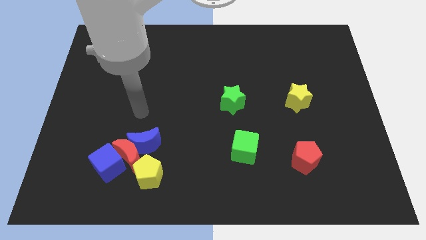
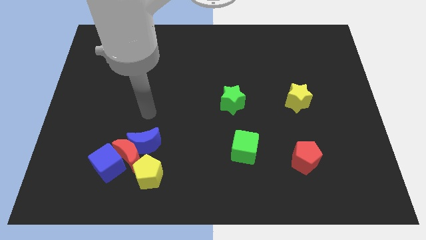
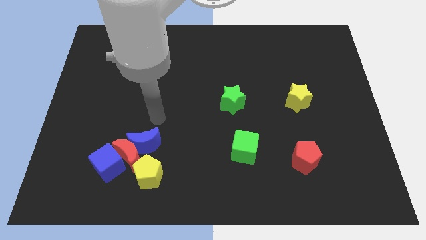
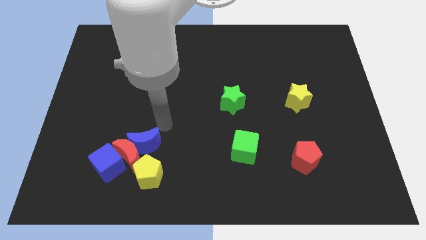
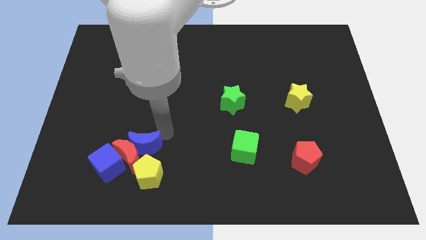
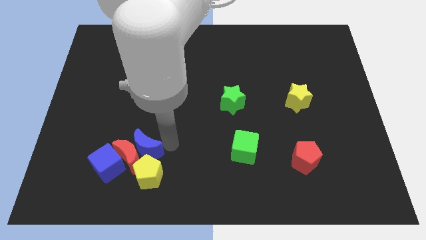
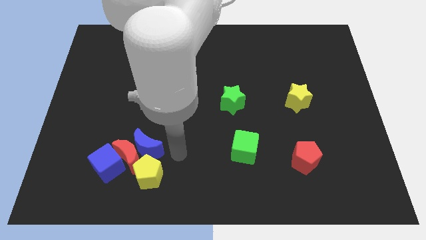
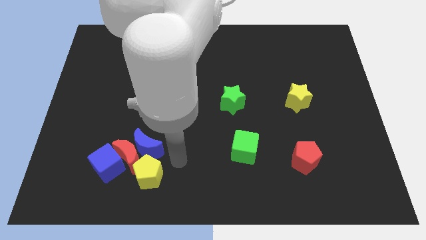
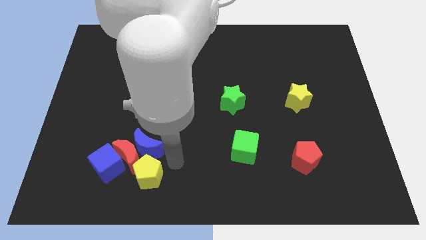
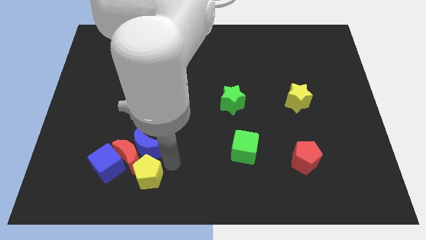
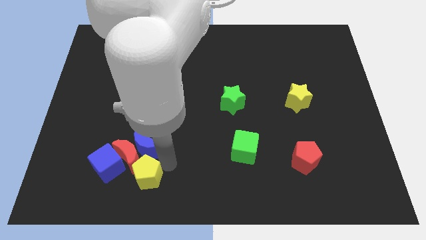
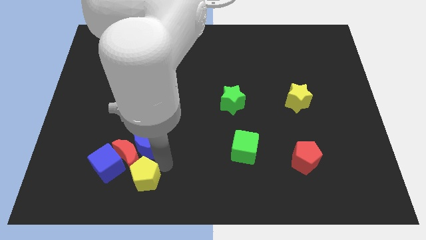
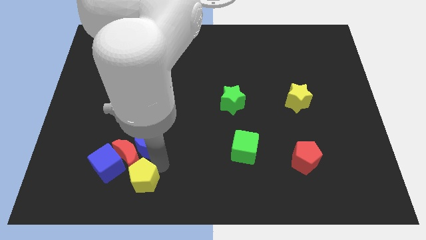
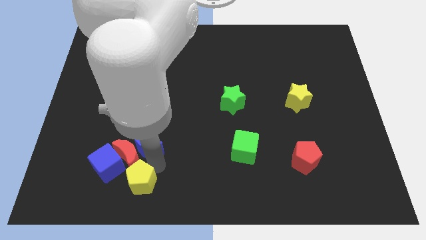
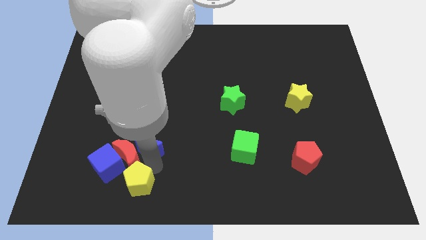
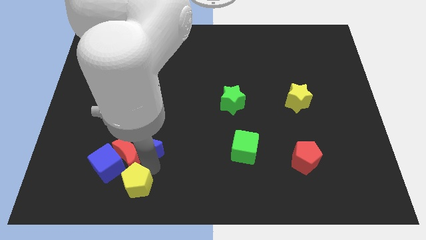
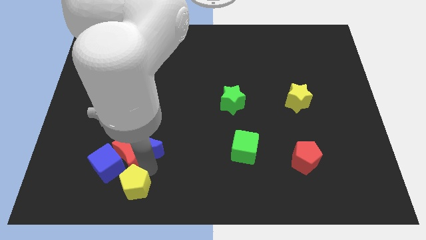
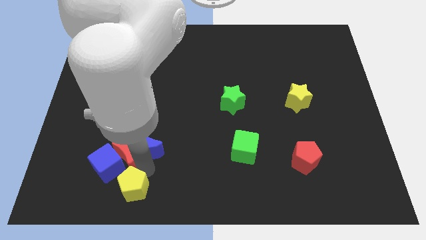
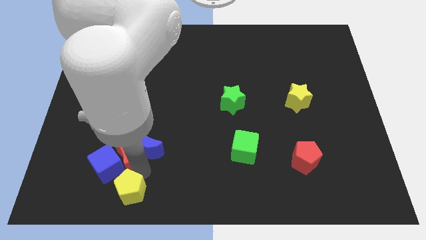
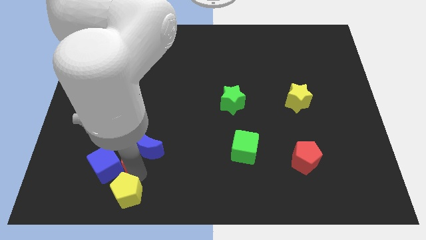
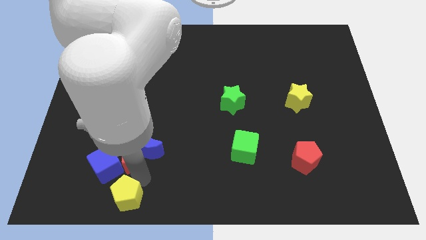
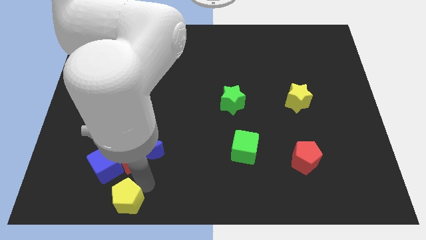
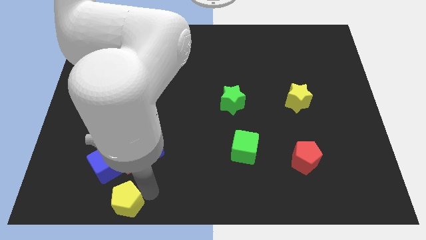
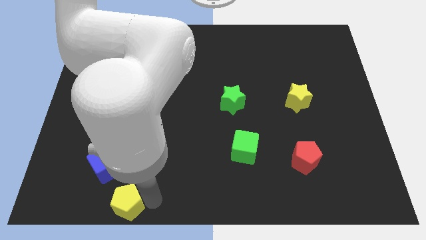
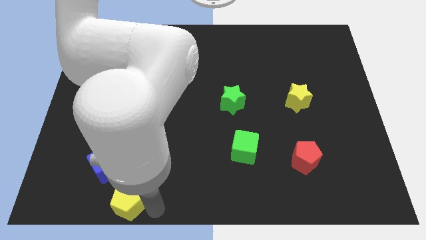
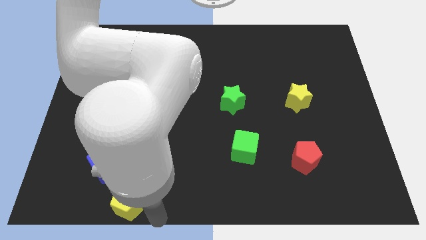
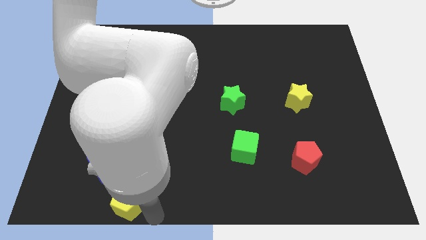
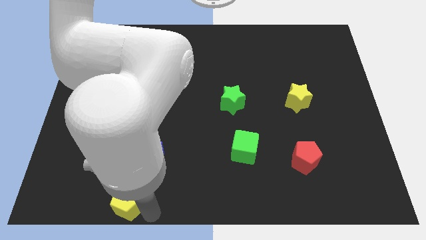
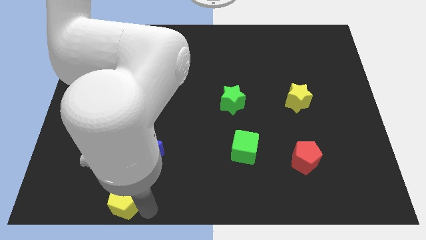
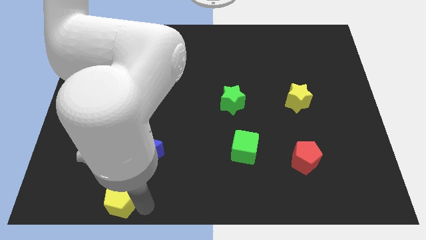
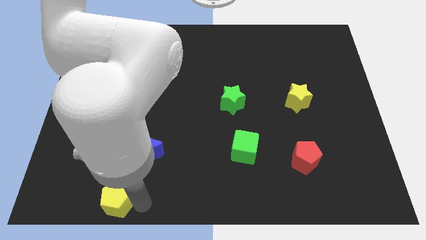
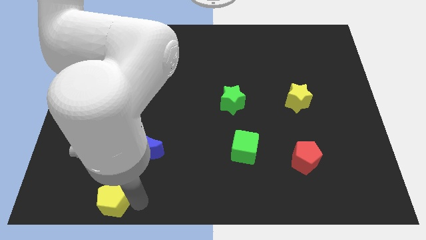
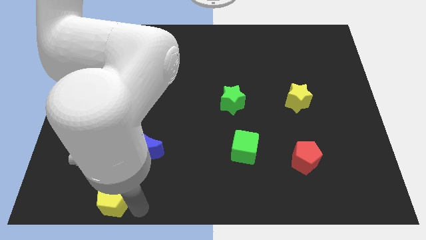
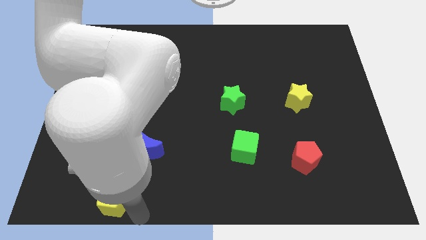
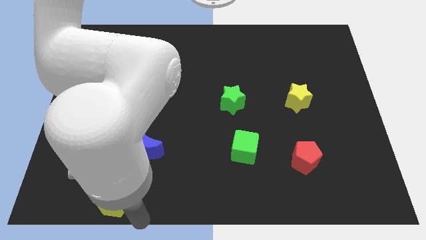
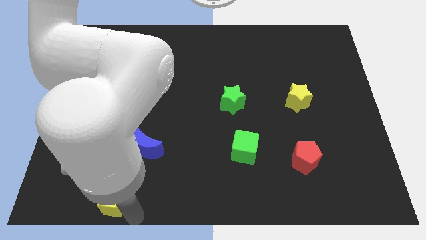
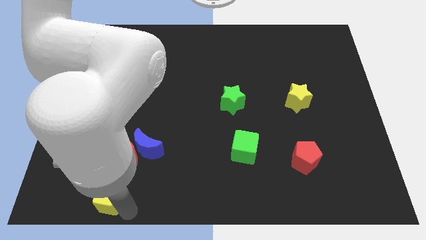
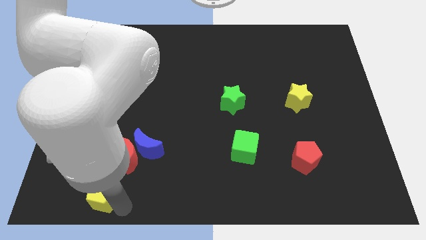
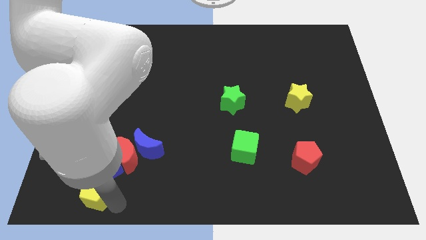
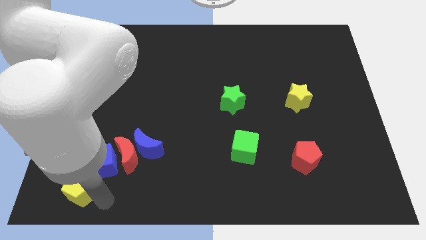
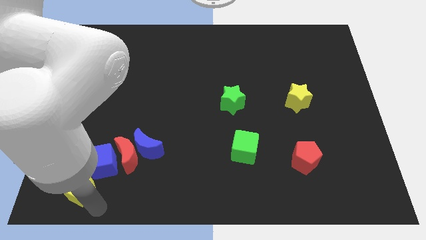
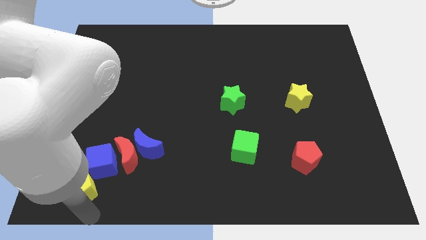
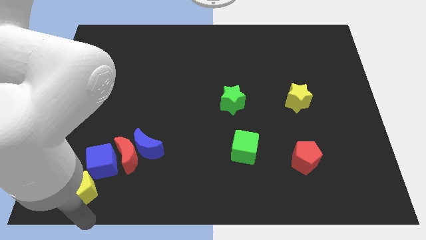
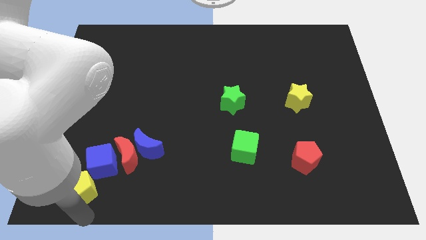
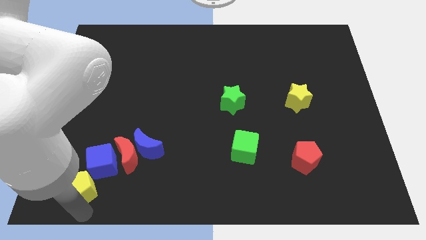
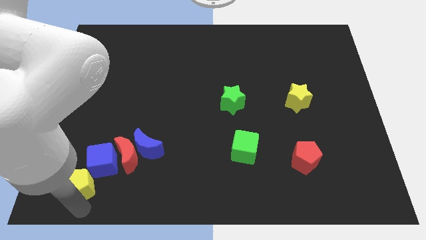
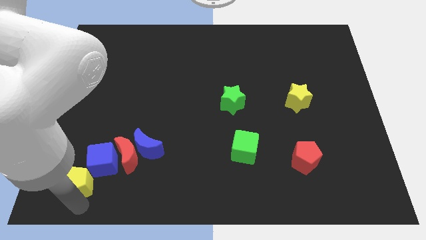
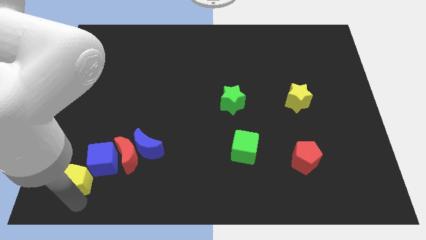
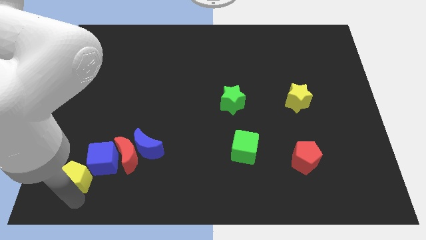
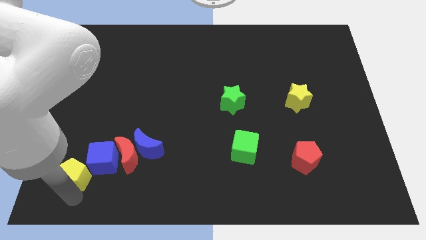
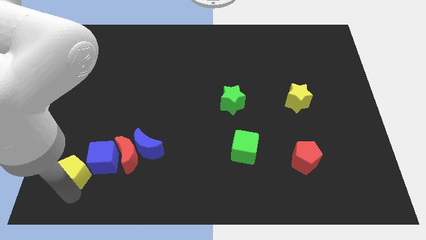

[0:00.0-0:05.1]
put the yellow pentagon just left of the red moon

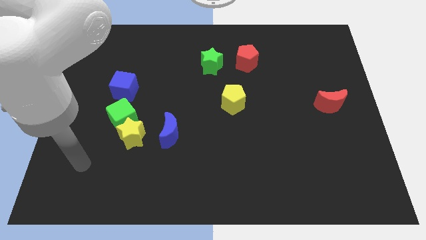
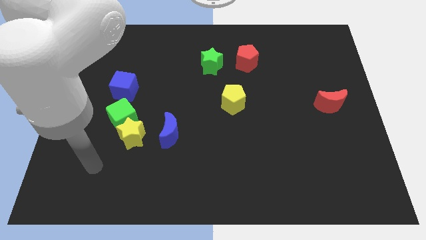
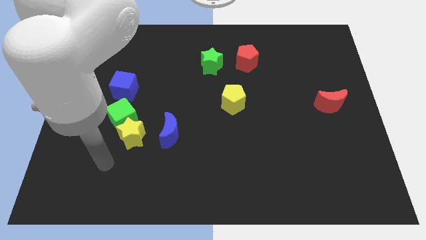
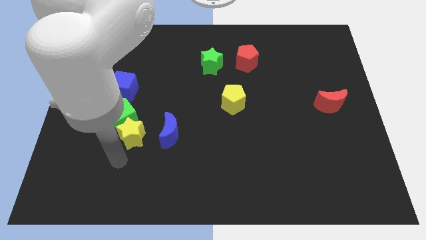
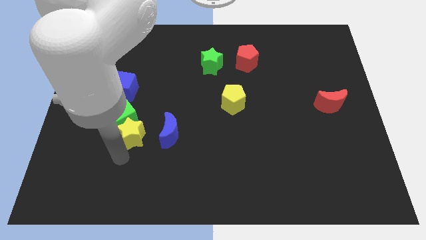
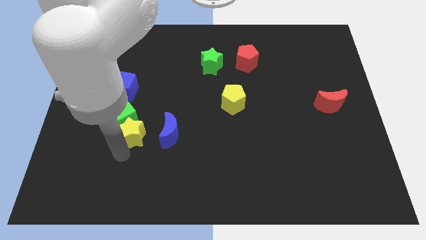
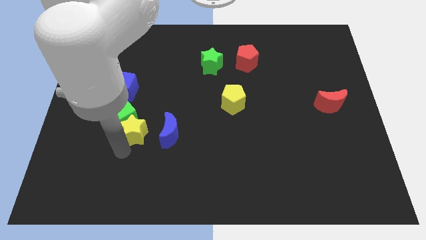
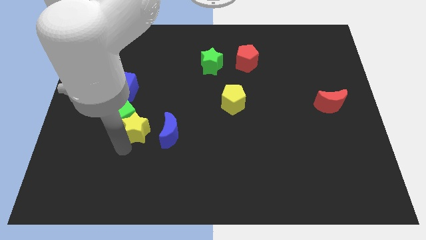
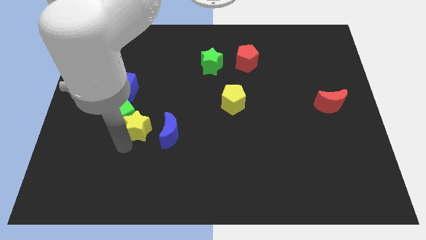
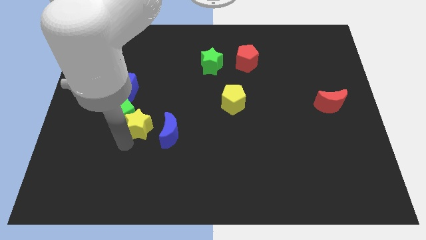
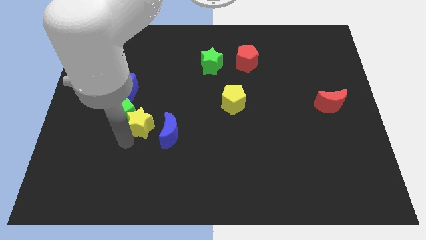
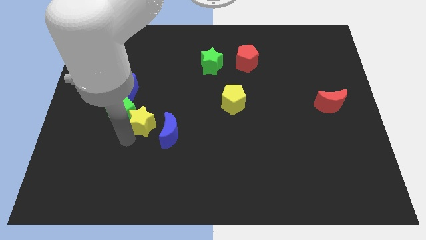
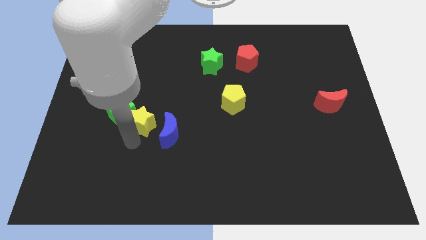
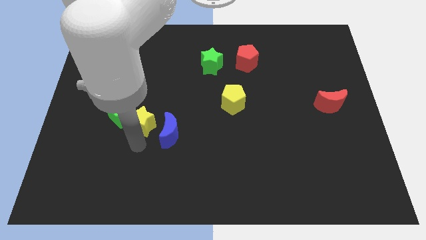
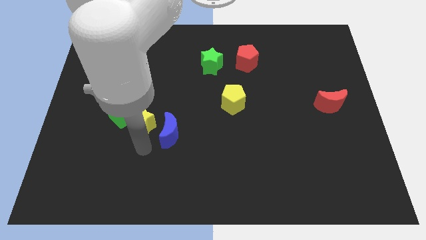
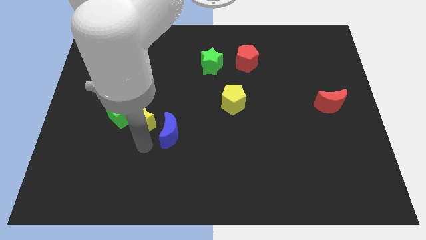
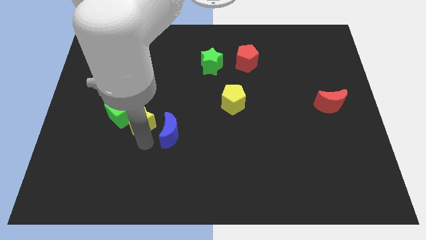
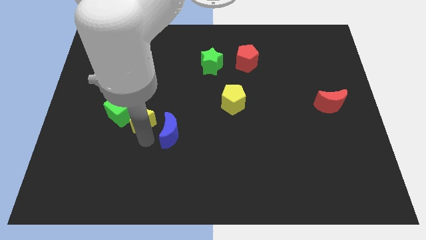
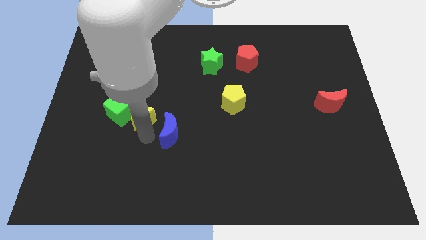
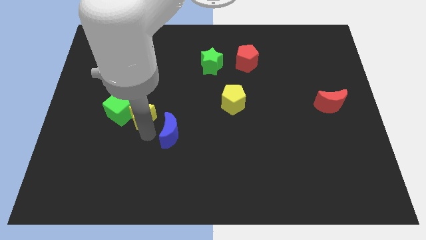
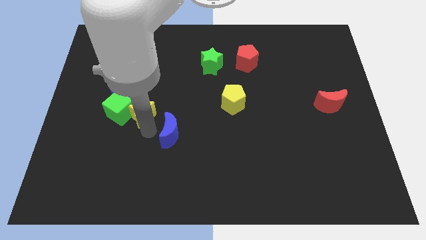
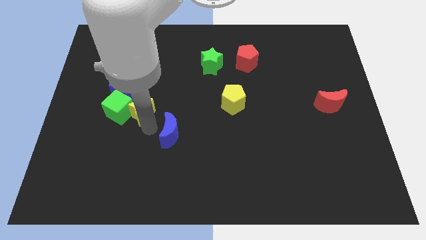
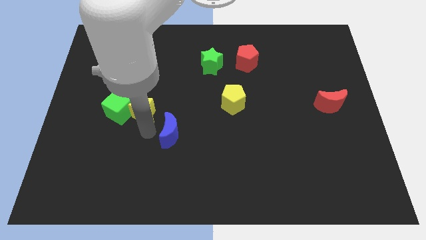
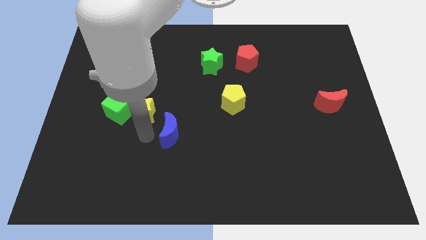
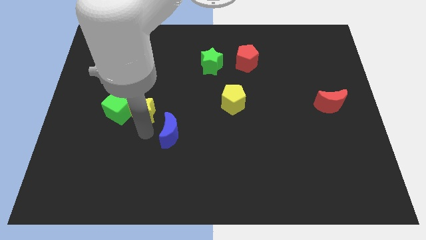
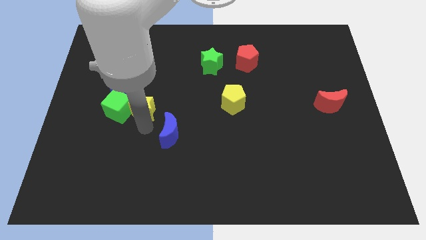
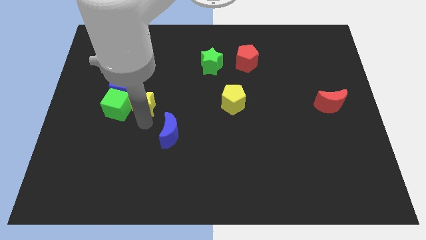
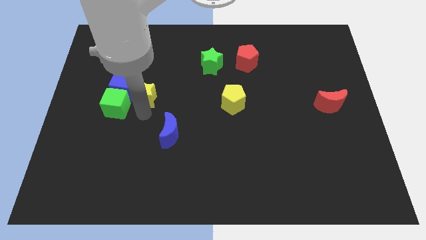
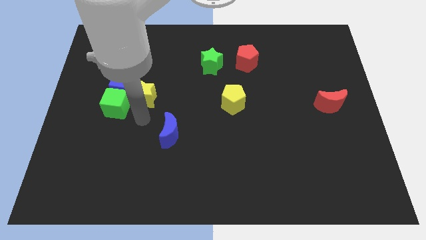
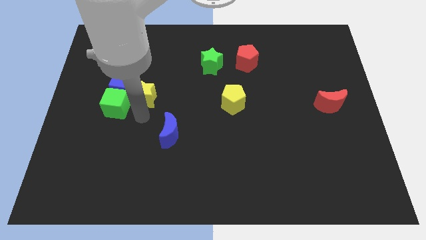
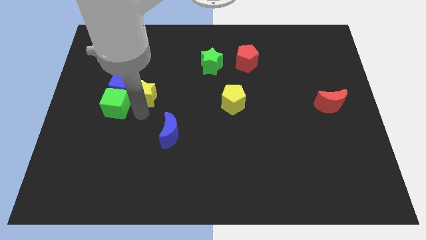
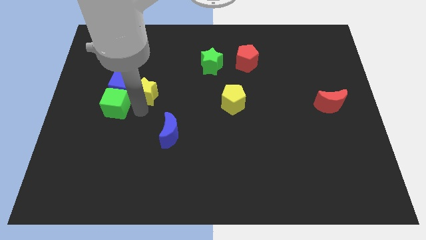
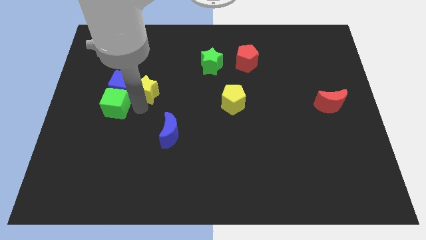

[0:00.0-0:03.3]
move the yellow star to the top right of the blue cube
